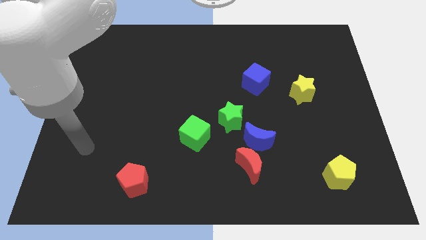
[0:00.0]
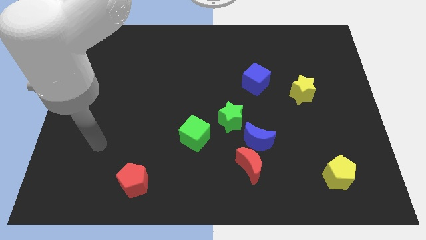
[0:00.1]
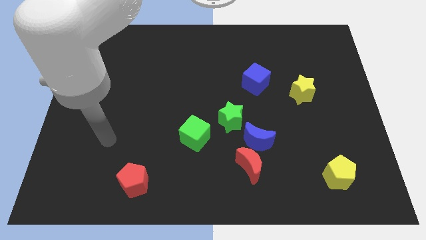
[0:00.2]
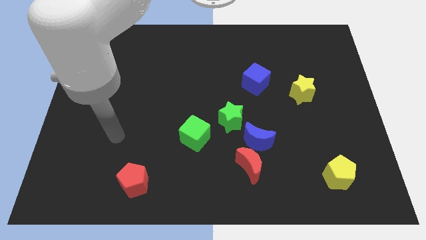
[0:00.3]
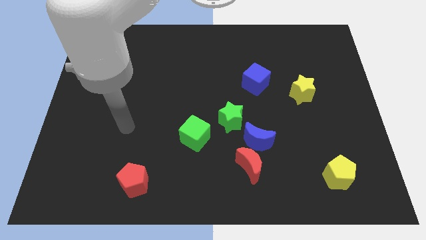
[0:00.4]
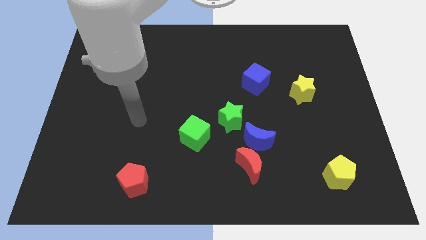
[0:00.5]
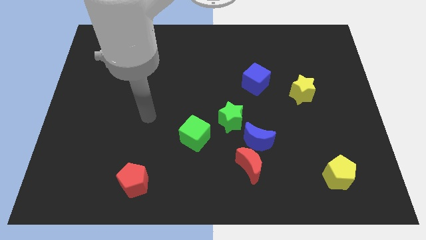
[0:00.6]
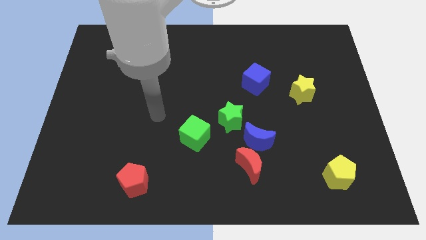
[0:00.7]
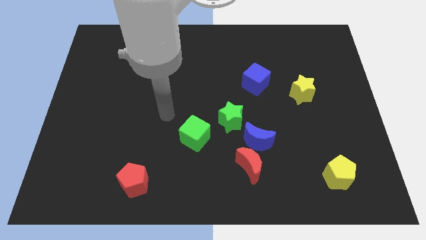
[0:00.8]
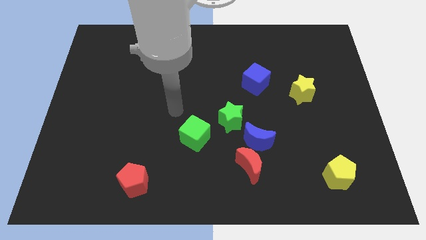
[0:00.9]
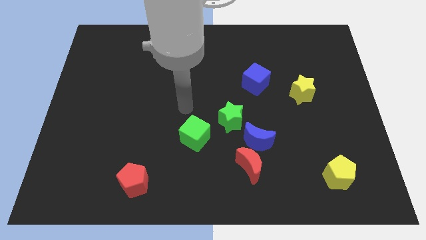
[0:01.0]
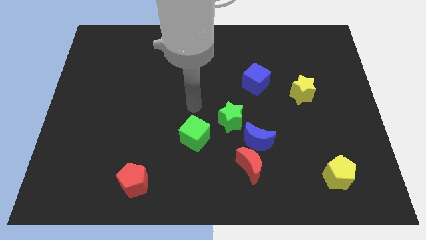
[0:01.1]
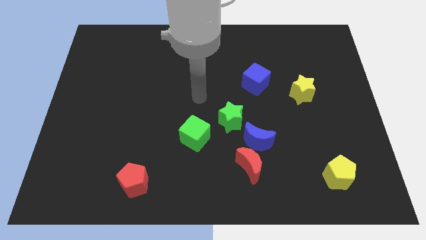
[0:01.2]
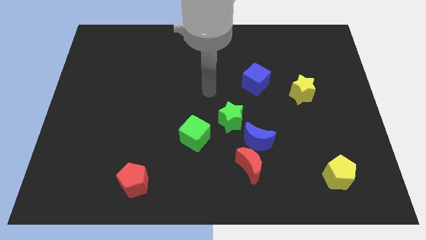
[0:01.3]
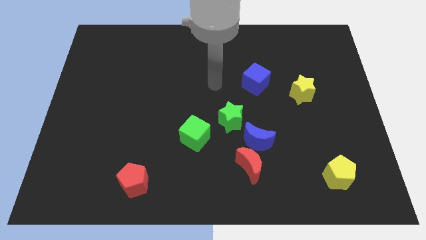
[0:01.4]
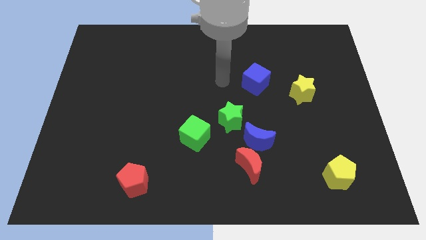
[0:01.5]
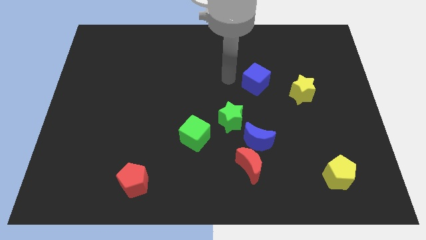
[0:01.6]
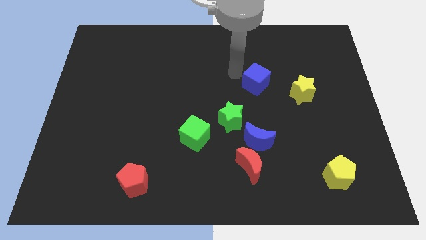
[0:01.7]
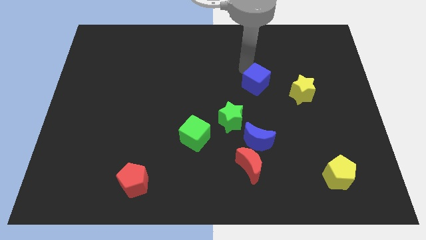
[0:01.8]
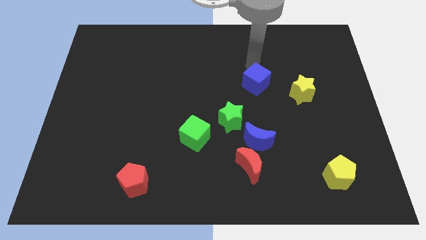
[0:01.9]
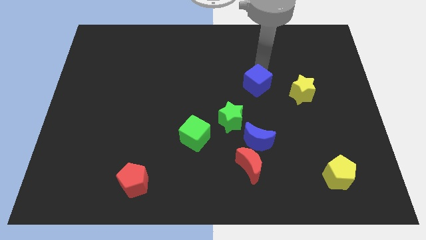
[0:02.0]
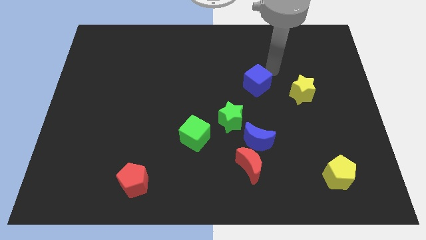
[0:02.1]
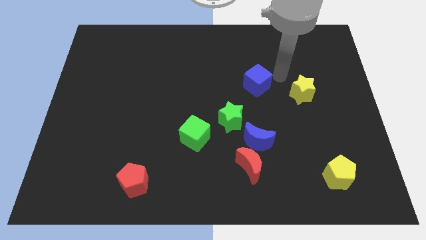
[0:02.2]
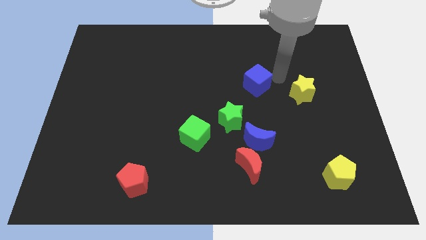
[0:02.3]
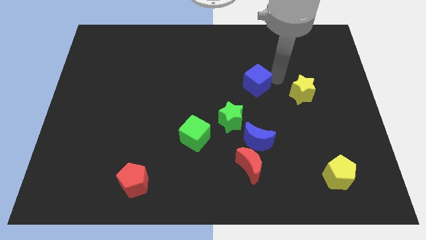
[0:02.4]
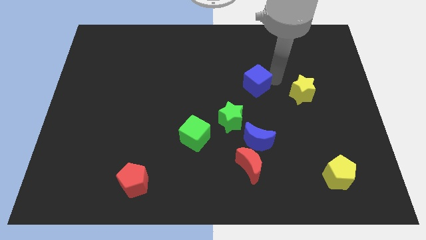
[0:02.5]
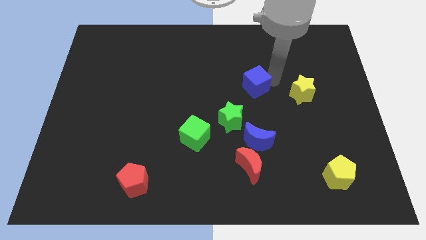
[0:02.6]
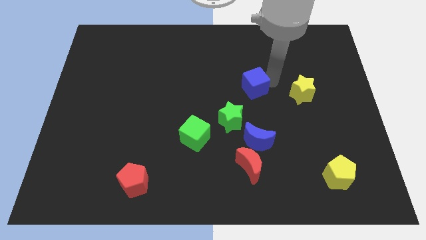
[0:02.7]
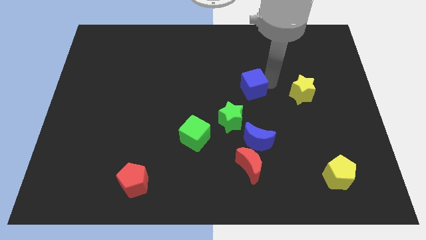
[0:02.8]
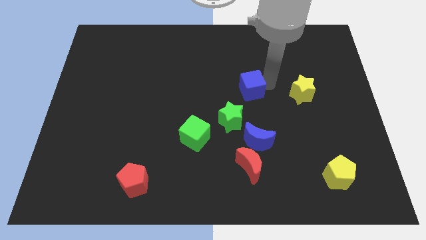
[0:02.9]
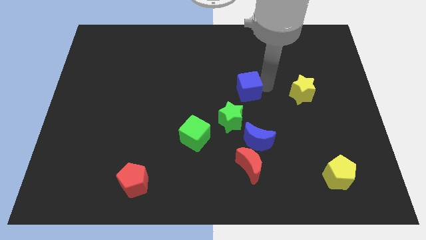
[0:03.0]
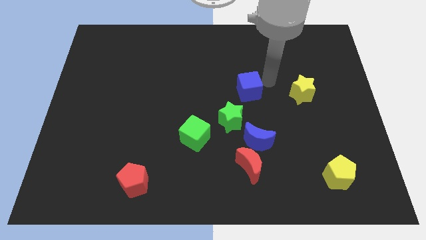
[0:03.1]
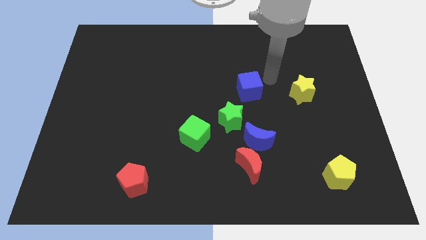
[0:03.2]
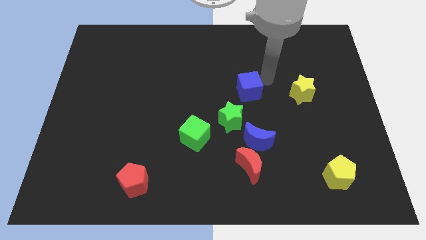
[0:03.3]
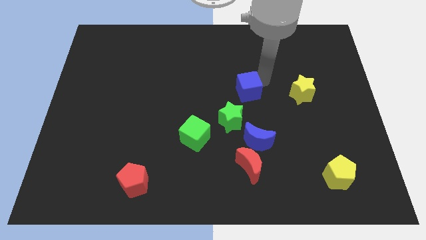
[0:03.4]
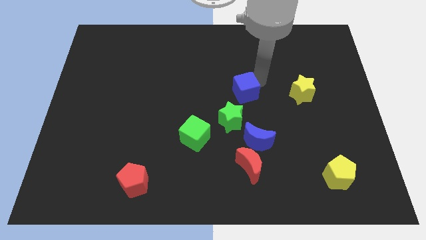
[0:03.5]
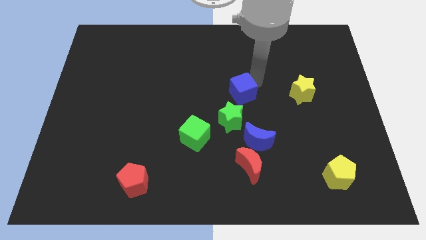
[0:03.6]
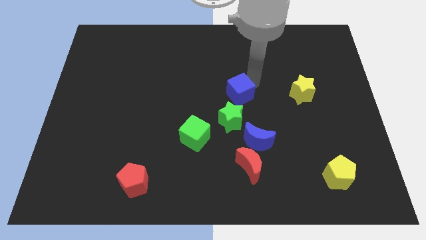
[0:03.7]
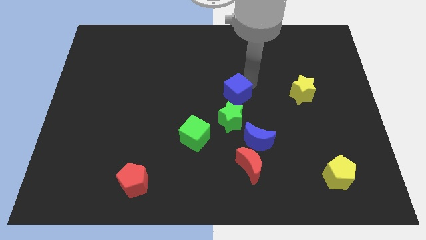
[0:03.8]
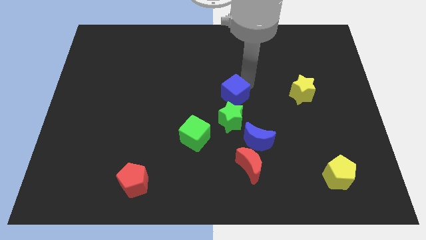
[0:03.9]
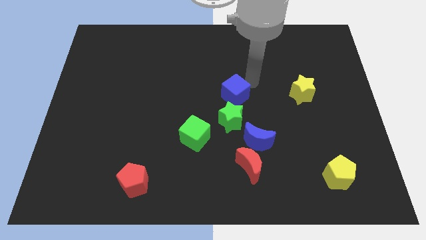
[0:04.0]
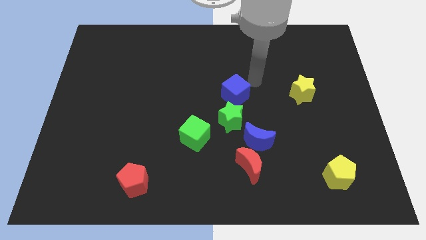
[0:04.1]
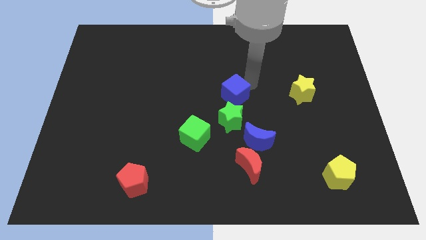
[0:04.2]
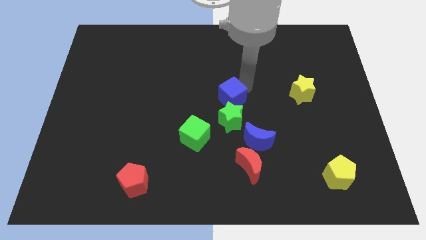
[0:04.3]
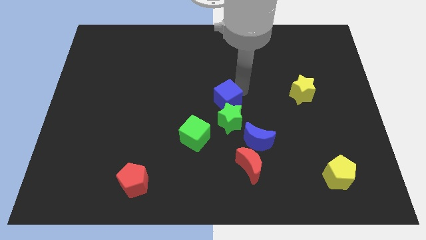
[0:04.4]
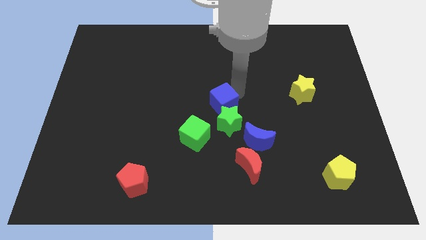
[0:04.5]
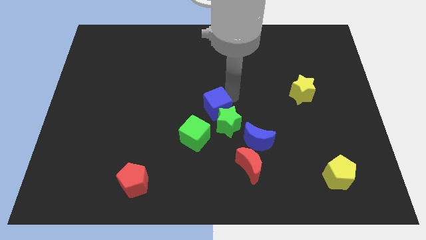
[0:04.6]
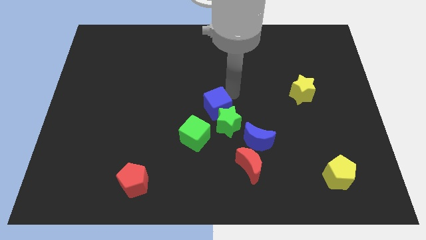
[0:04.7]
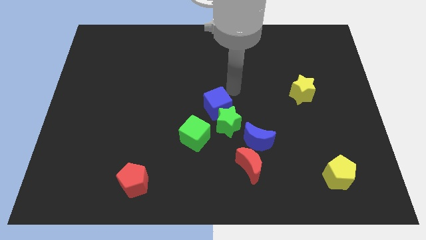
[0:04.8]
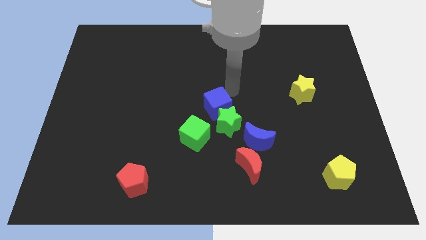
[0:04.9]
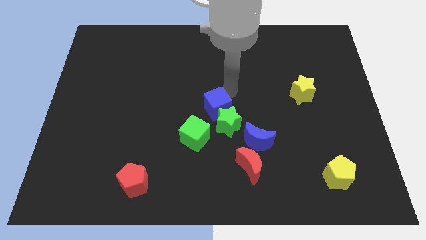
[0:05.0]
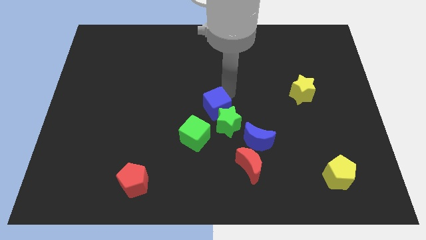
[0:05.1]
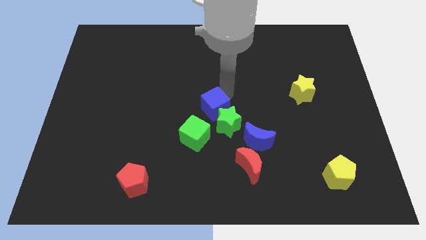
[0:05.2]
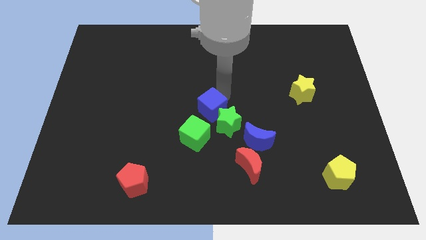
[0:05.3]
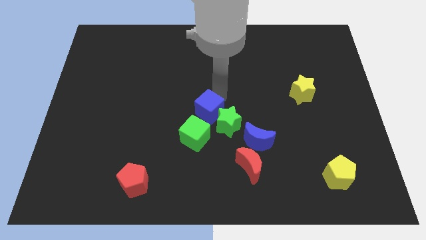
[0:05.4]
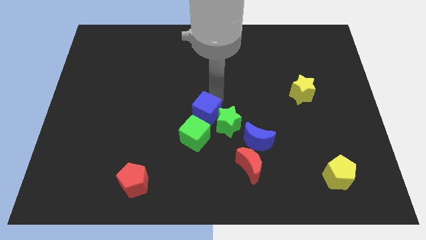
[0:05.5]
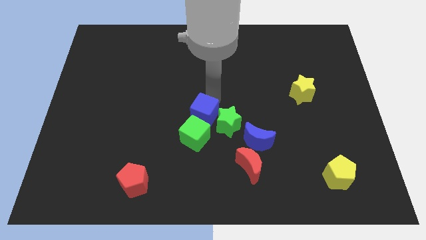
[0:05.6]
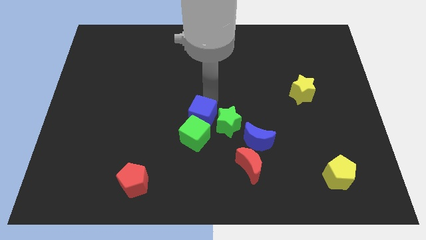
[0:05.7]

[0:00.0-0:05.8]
put the blue cube to the green cube

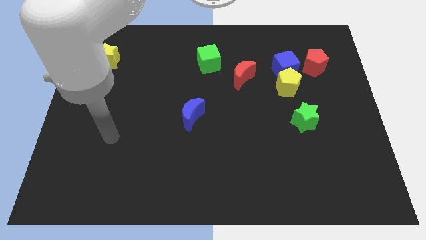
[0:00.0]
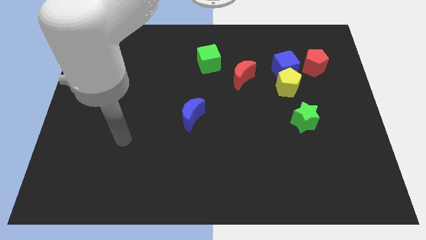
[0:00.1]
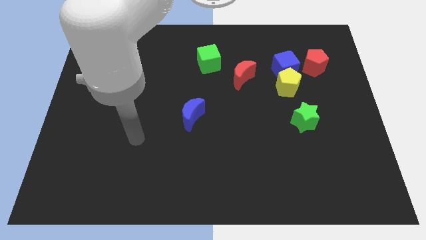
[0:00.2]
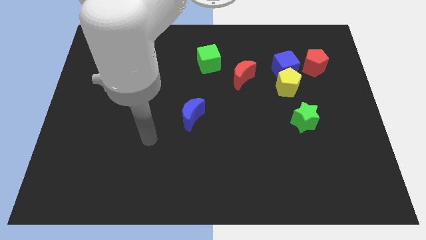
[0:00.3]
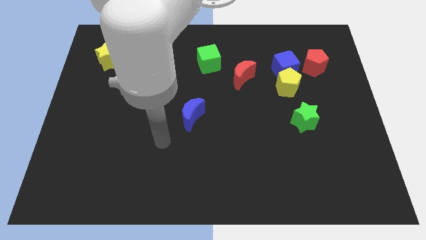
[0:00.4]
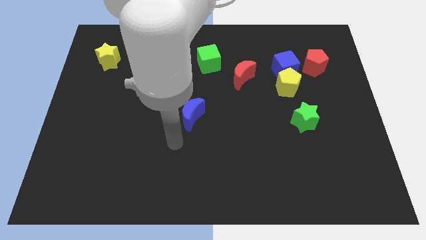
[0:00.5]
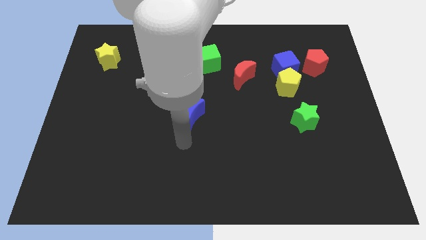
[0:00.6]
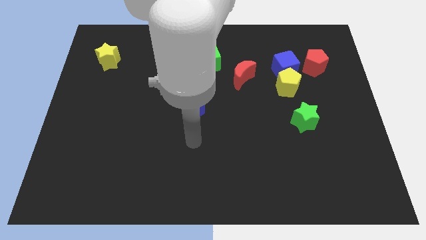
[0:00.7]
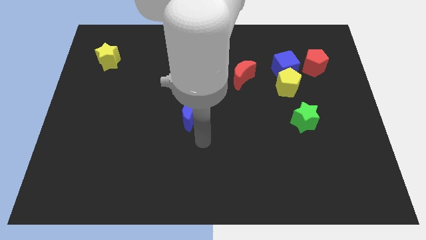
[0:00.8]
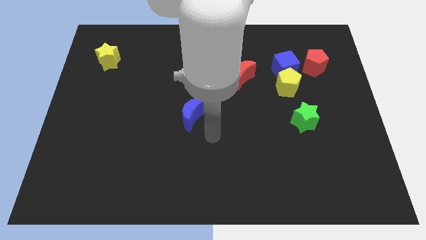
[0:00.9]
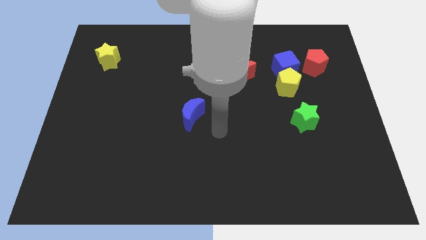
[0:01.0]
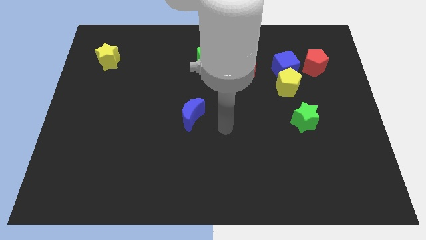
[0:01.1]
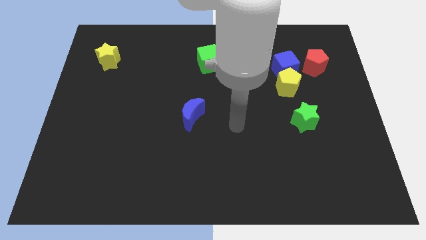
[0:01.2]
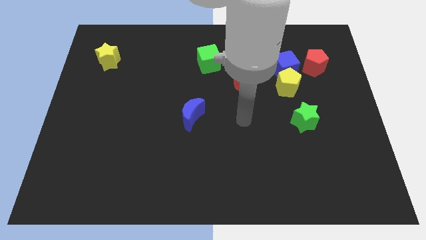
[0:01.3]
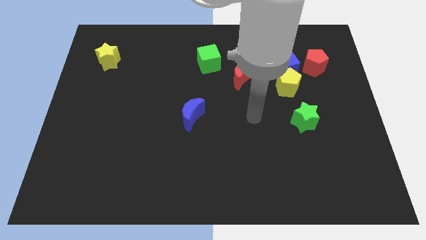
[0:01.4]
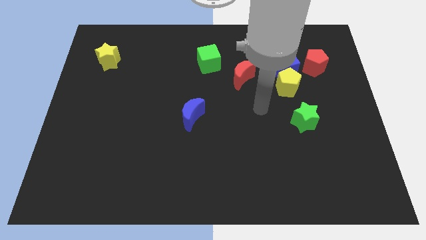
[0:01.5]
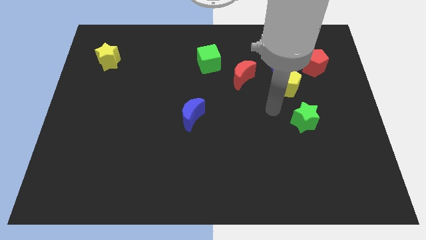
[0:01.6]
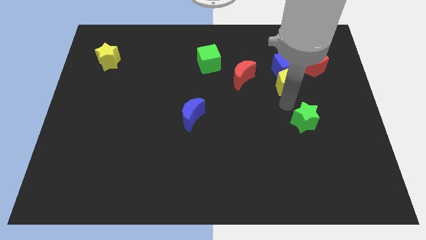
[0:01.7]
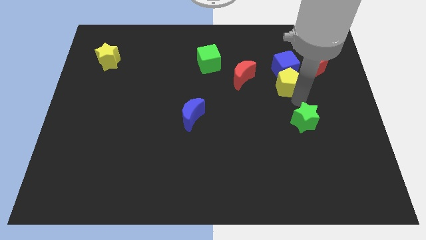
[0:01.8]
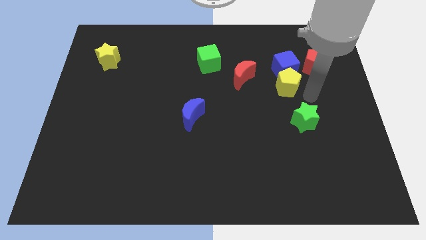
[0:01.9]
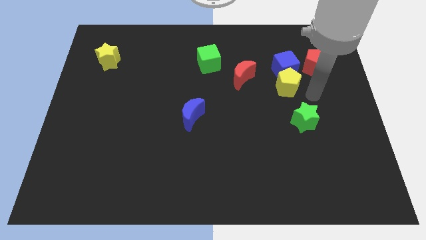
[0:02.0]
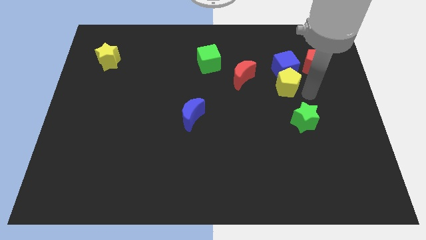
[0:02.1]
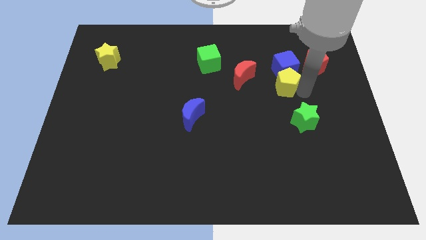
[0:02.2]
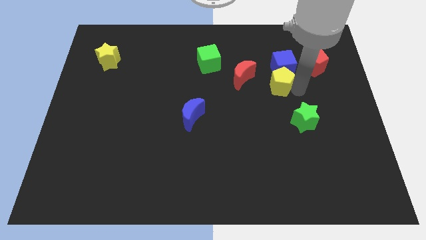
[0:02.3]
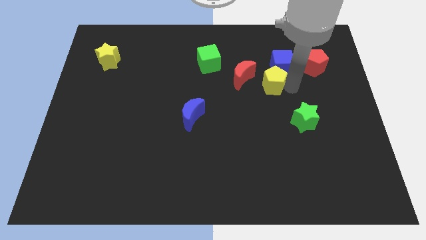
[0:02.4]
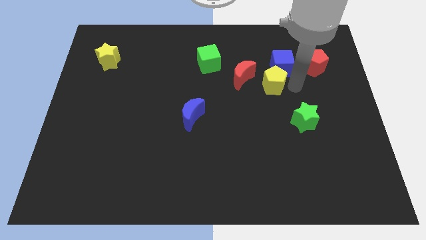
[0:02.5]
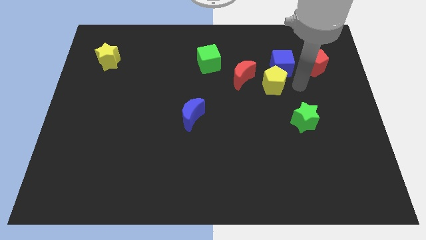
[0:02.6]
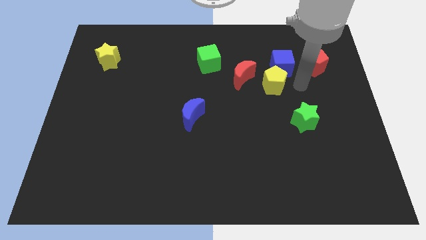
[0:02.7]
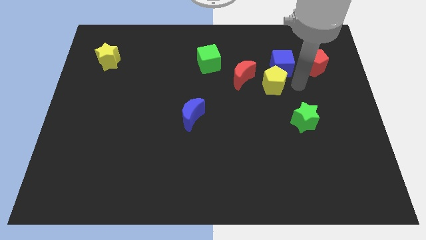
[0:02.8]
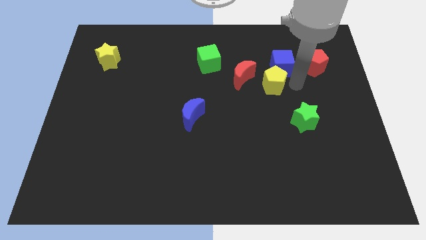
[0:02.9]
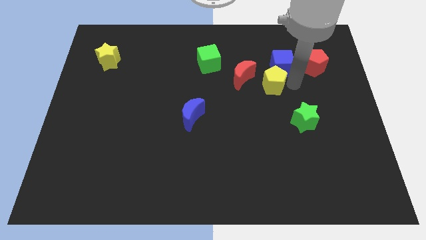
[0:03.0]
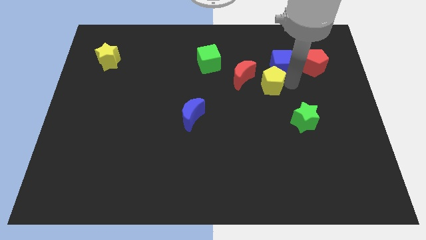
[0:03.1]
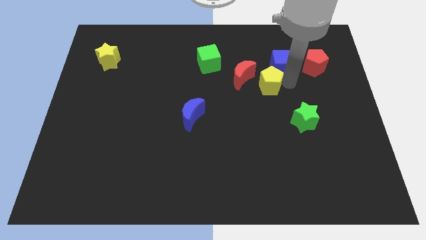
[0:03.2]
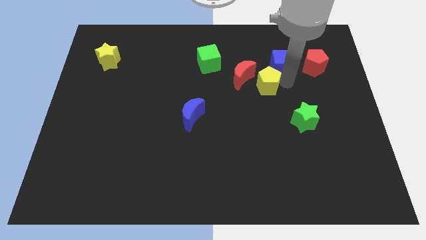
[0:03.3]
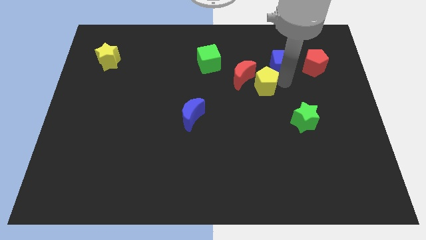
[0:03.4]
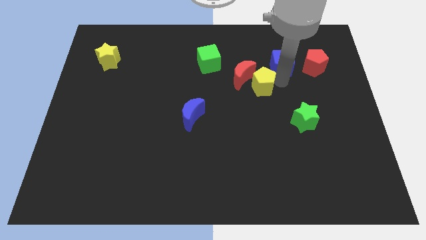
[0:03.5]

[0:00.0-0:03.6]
slide the yellow pentagon to the red moon
